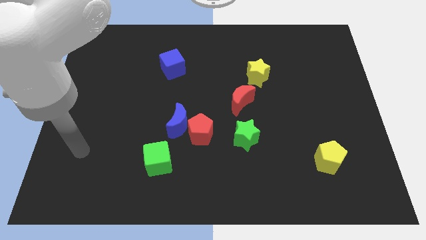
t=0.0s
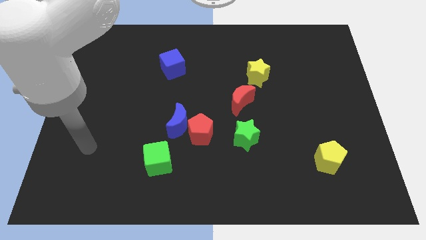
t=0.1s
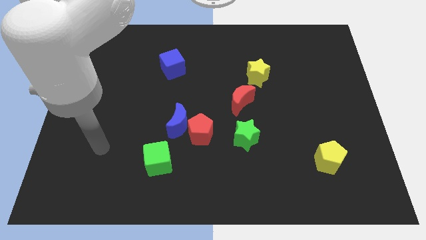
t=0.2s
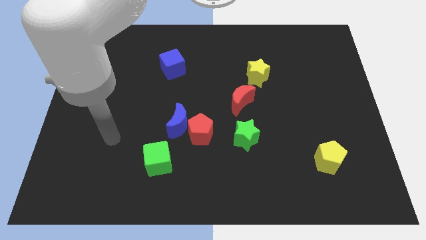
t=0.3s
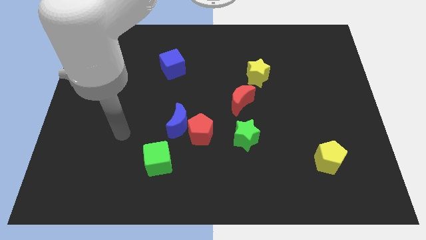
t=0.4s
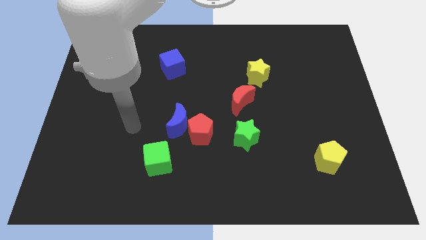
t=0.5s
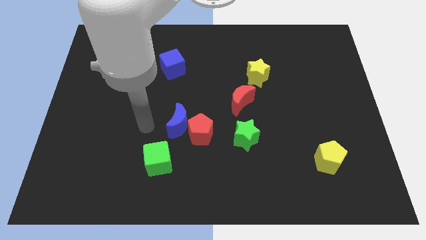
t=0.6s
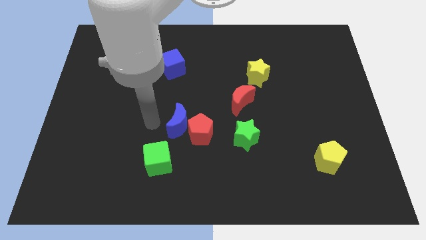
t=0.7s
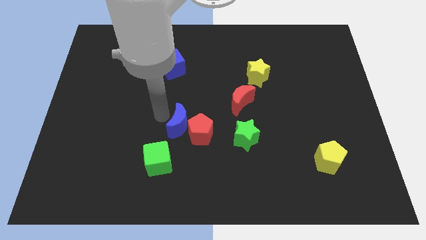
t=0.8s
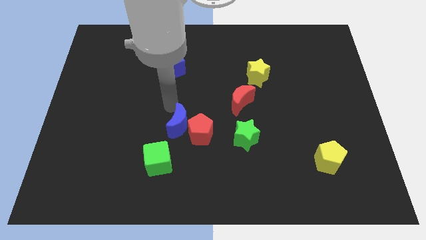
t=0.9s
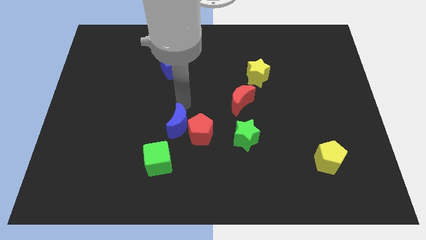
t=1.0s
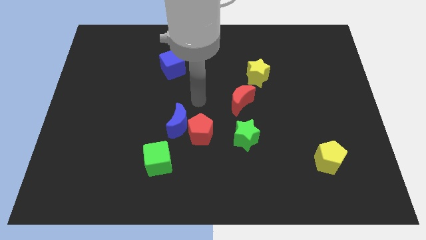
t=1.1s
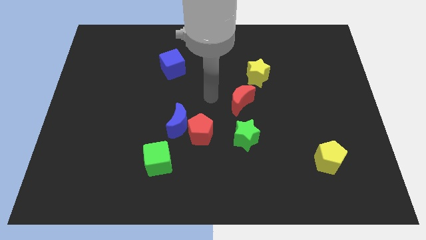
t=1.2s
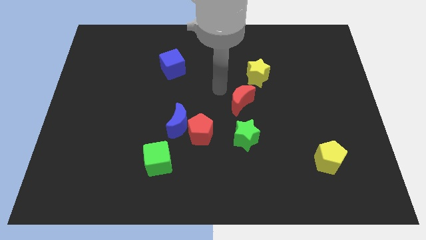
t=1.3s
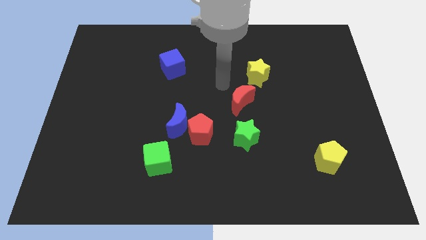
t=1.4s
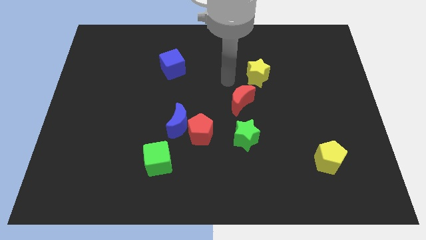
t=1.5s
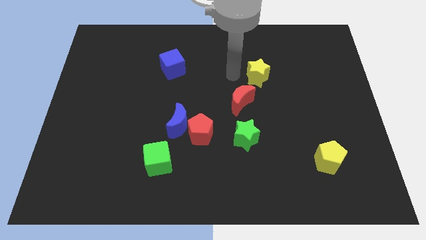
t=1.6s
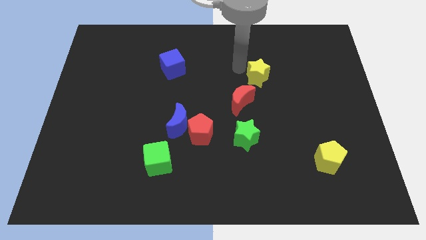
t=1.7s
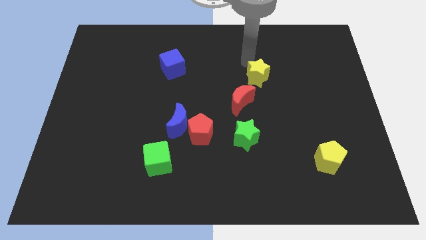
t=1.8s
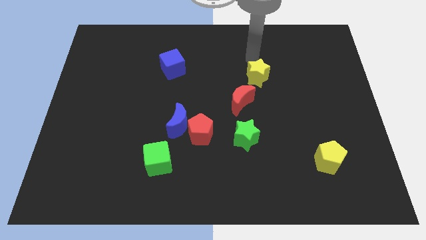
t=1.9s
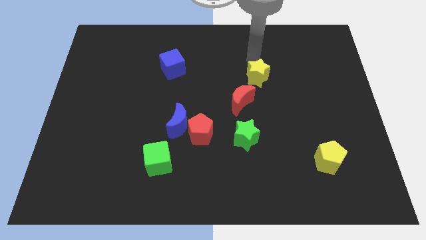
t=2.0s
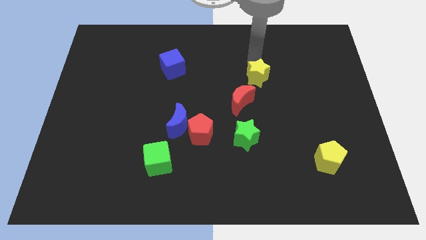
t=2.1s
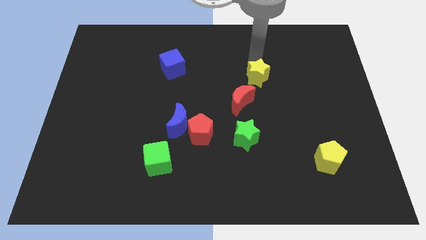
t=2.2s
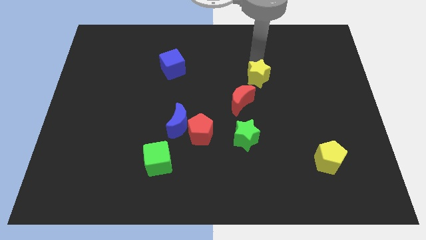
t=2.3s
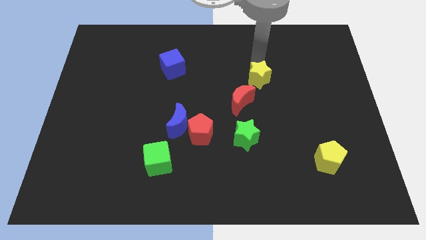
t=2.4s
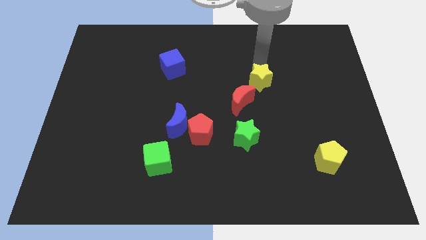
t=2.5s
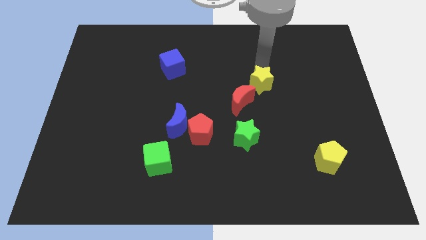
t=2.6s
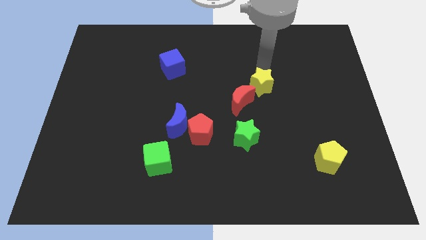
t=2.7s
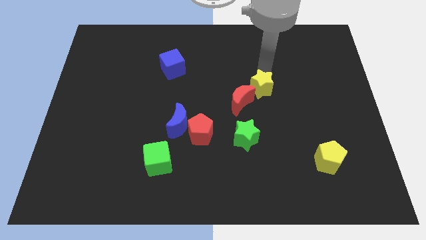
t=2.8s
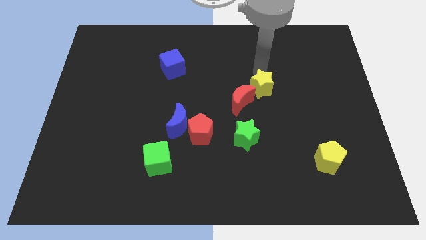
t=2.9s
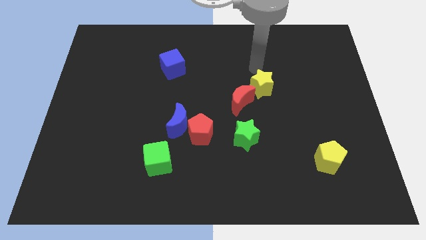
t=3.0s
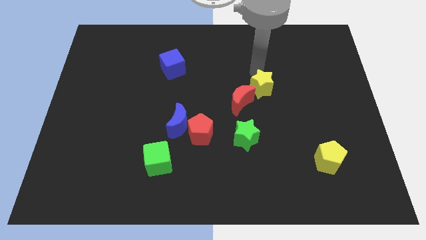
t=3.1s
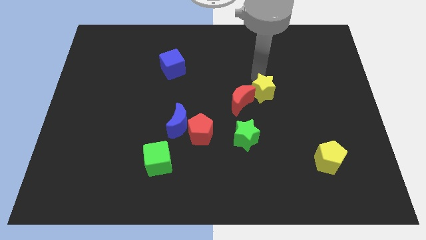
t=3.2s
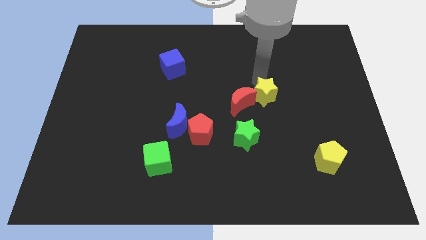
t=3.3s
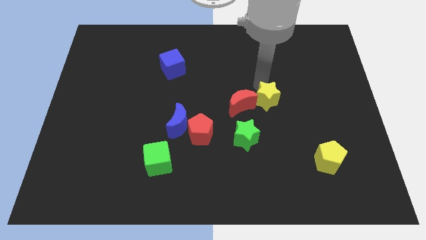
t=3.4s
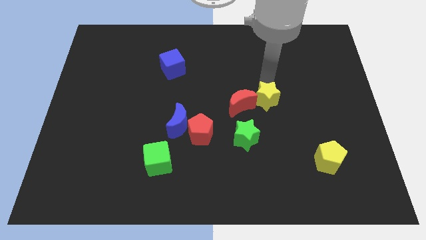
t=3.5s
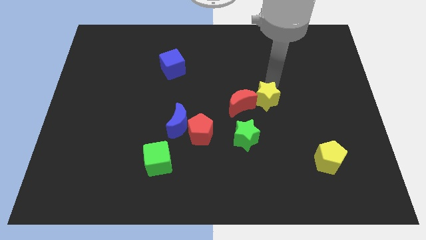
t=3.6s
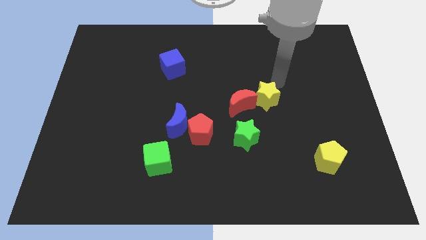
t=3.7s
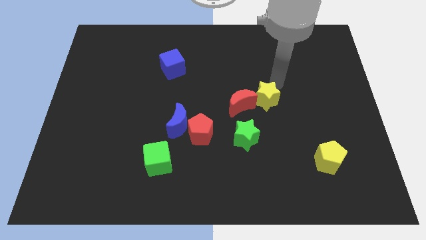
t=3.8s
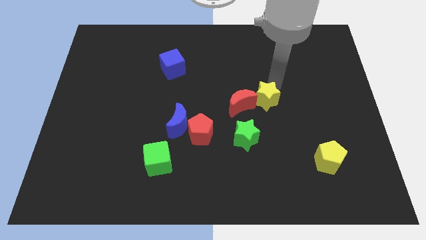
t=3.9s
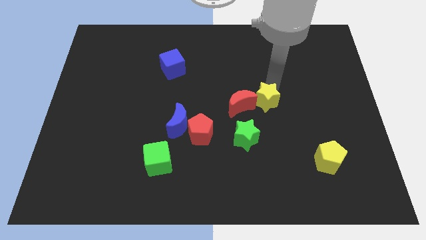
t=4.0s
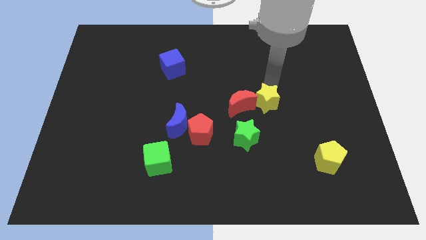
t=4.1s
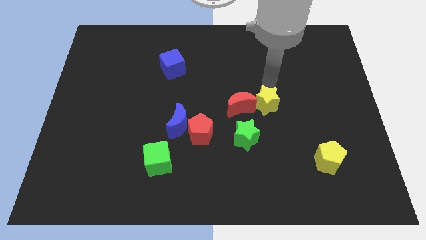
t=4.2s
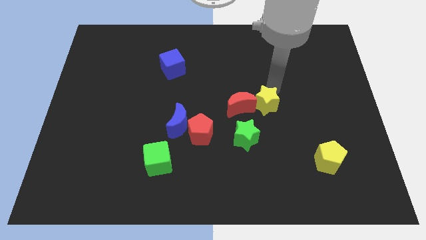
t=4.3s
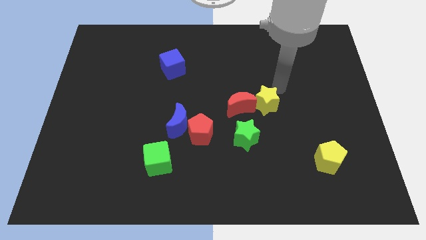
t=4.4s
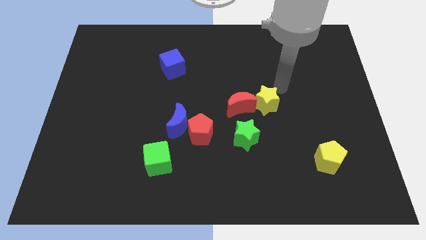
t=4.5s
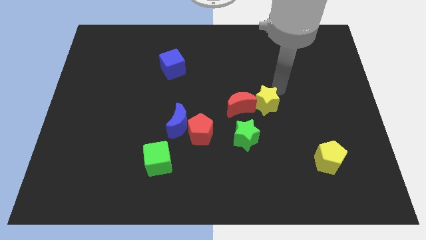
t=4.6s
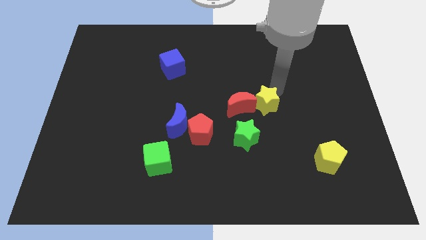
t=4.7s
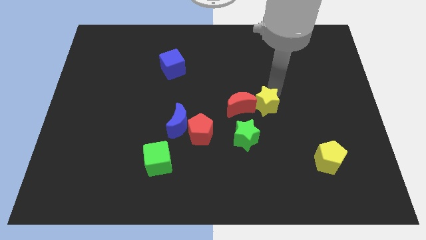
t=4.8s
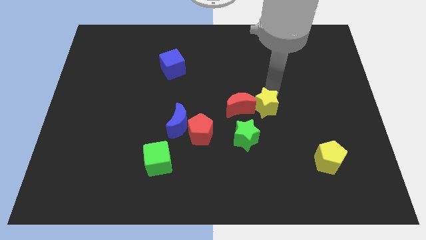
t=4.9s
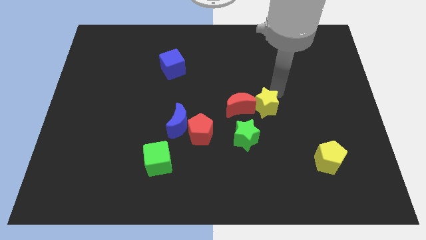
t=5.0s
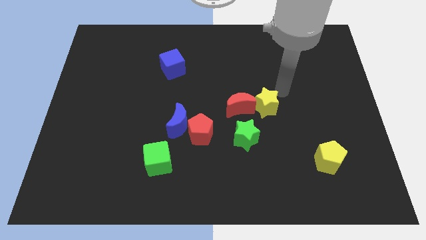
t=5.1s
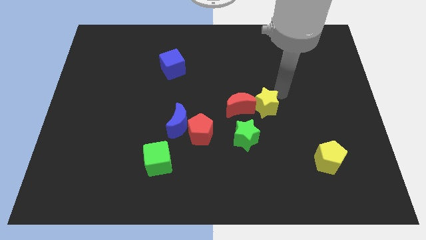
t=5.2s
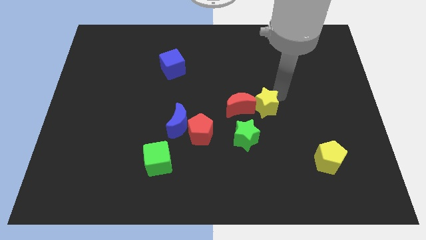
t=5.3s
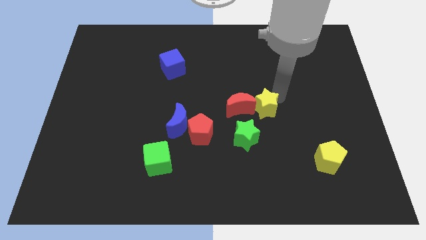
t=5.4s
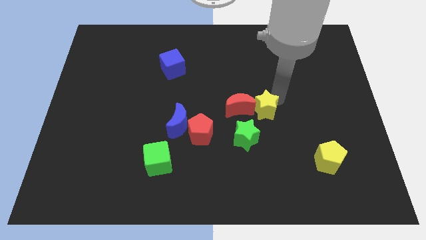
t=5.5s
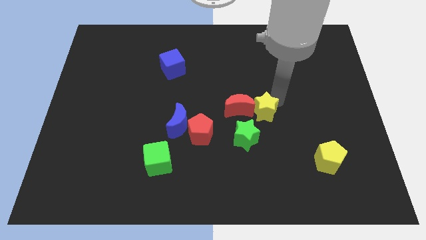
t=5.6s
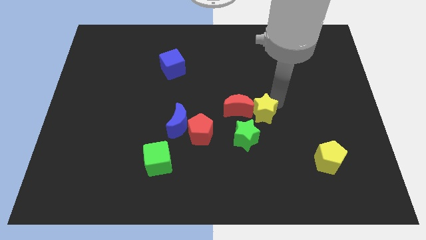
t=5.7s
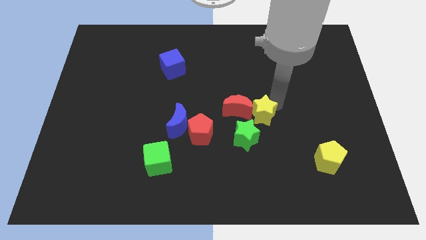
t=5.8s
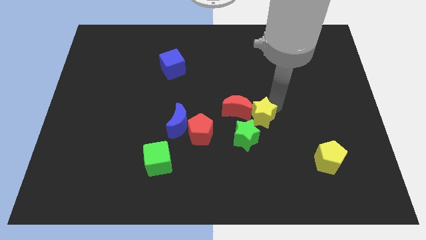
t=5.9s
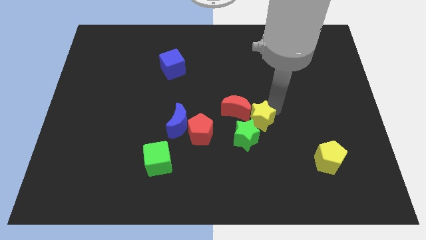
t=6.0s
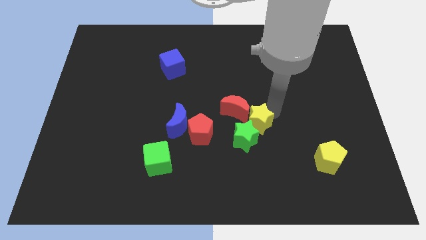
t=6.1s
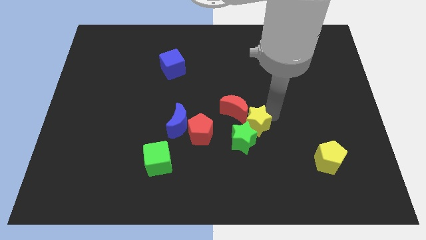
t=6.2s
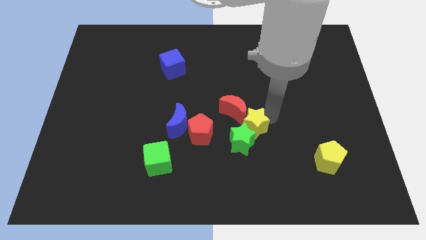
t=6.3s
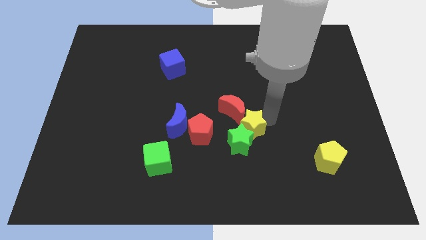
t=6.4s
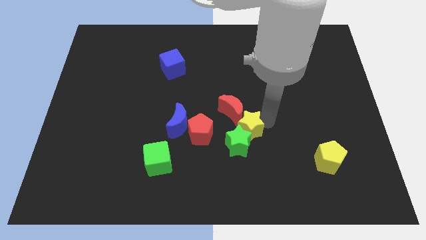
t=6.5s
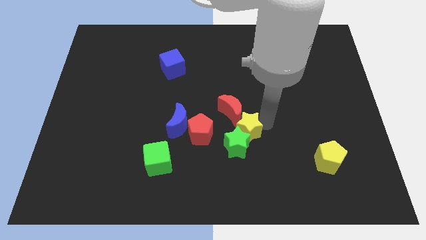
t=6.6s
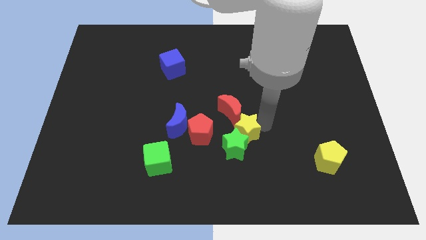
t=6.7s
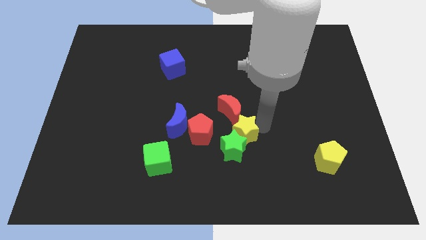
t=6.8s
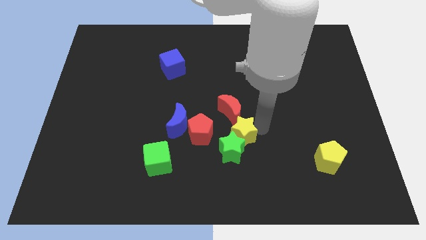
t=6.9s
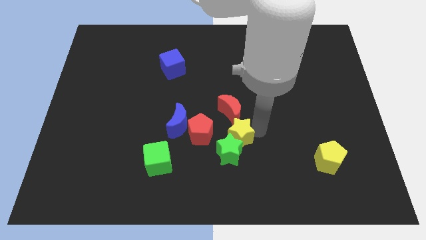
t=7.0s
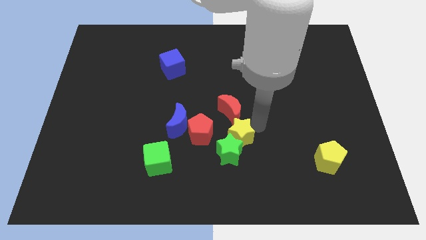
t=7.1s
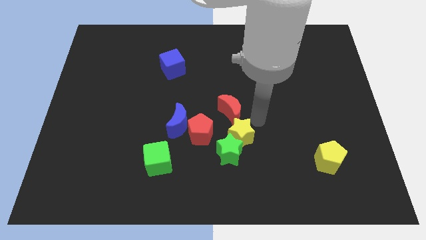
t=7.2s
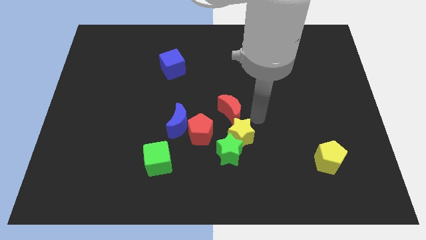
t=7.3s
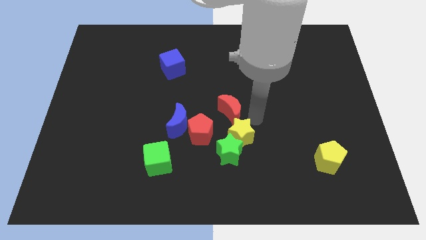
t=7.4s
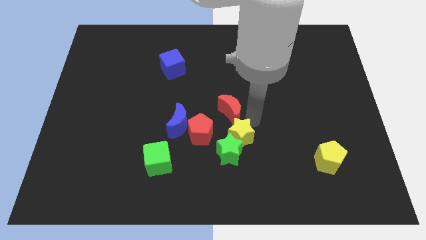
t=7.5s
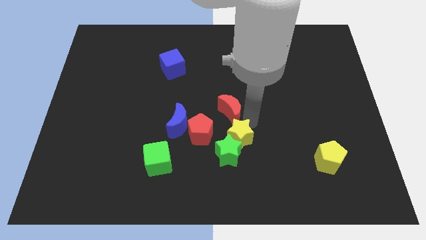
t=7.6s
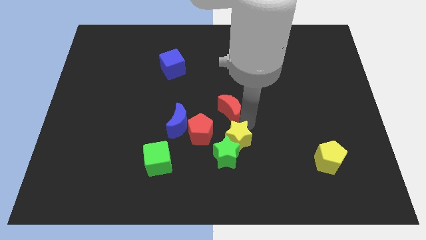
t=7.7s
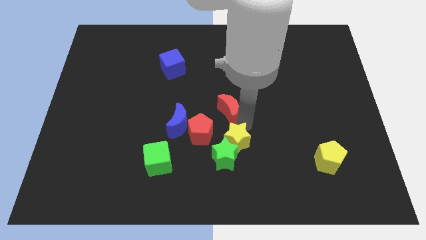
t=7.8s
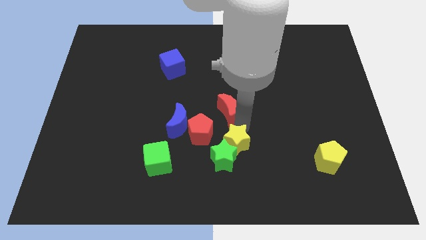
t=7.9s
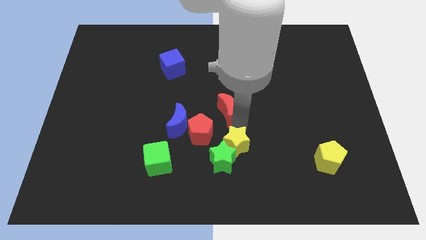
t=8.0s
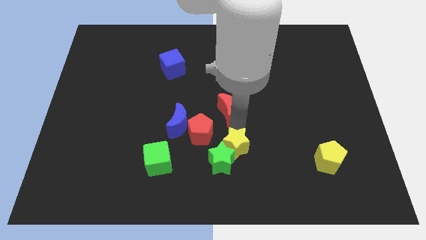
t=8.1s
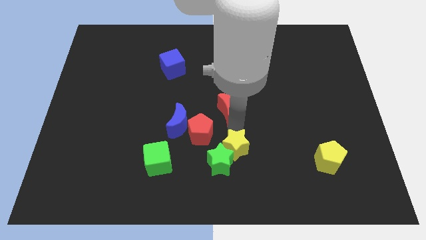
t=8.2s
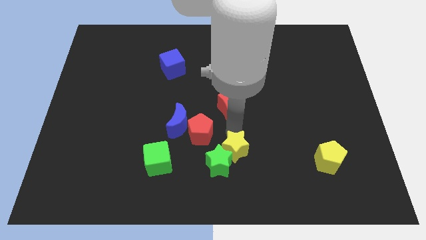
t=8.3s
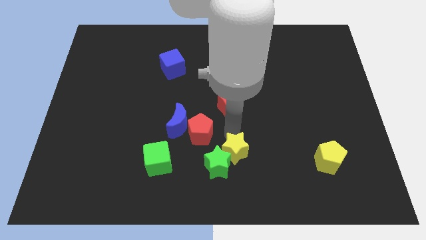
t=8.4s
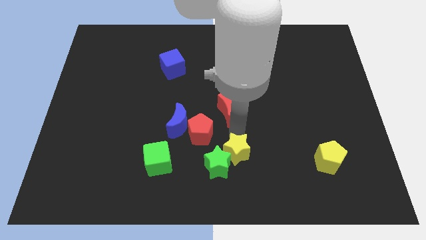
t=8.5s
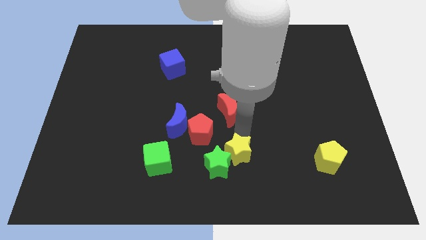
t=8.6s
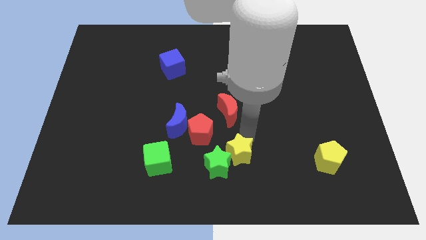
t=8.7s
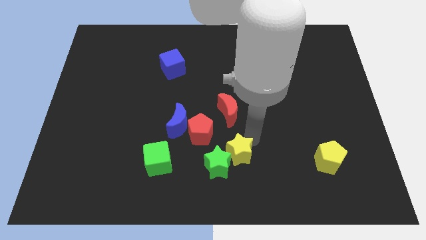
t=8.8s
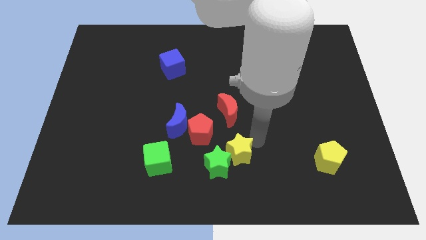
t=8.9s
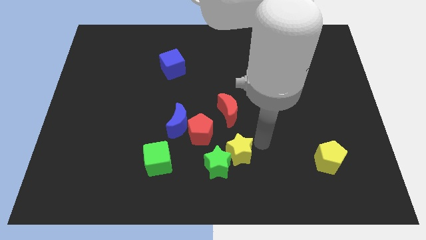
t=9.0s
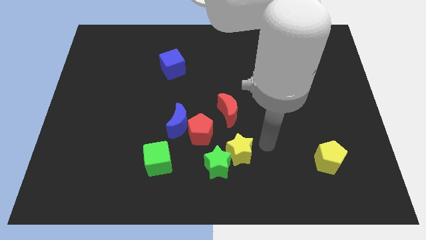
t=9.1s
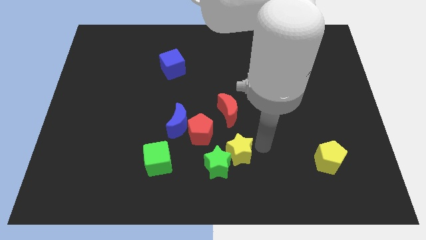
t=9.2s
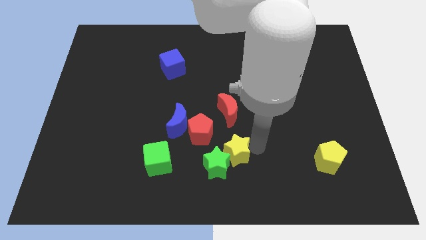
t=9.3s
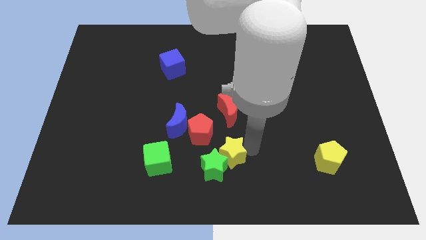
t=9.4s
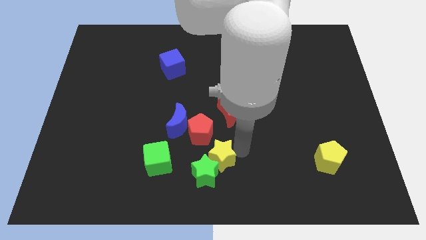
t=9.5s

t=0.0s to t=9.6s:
move the yellow star to the bottom side of the red pentagon
